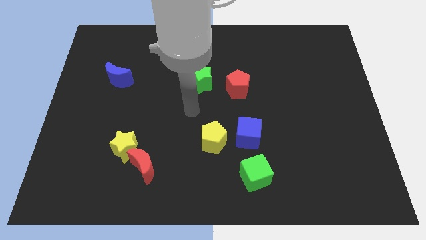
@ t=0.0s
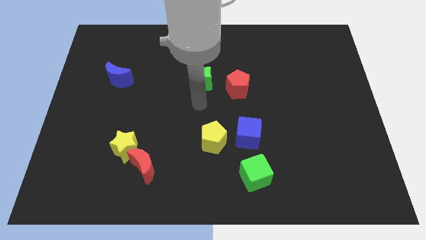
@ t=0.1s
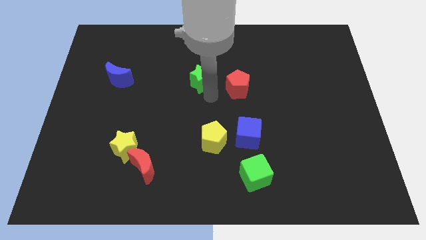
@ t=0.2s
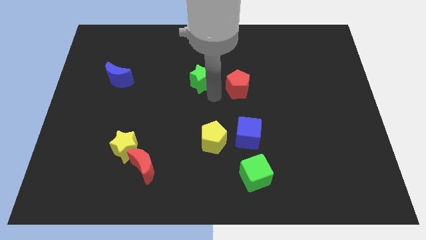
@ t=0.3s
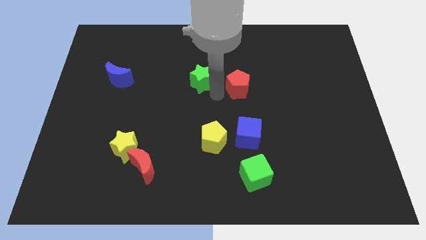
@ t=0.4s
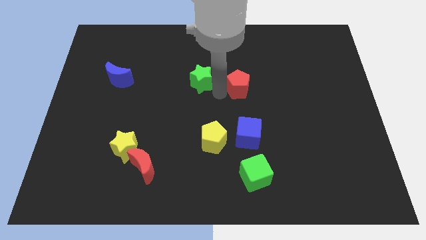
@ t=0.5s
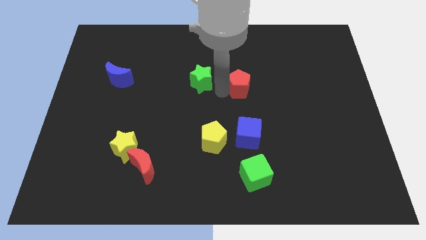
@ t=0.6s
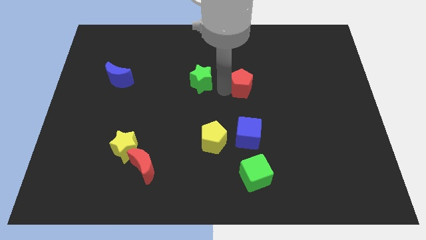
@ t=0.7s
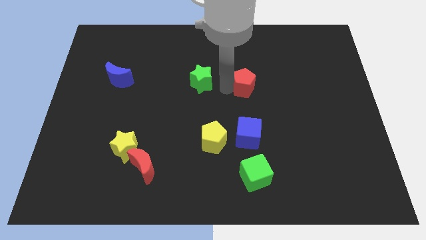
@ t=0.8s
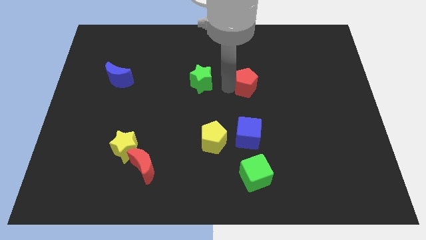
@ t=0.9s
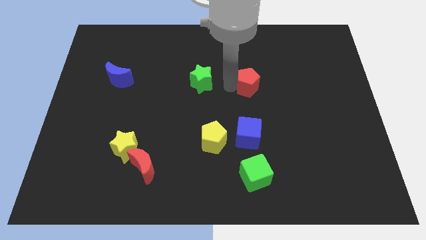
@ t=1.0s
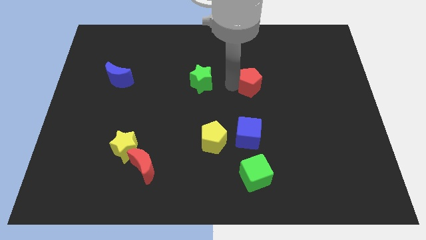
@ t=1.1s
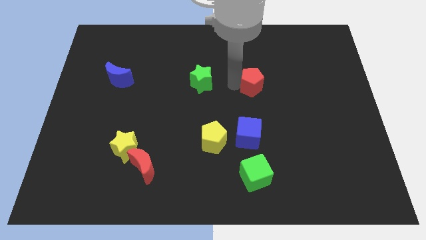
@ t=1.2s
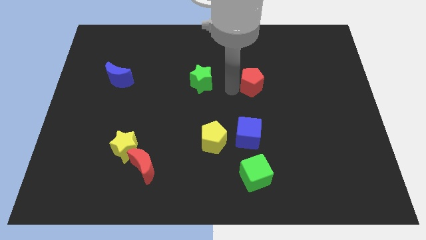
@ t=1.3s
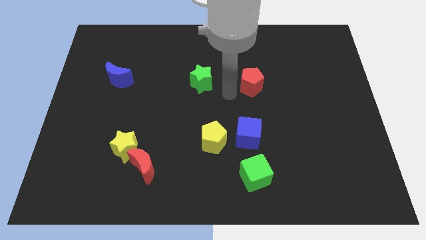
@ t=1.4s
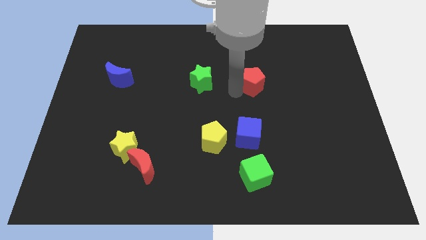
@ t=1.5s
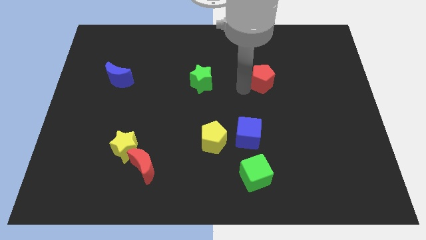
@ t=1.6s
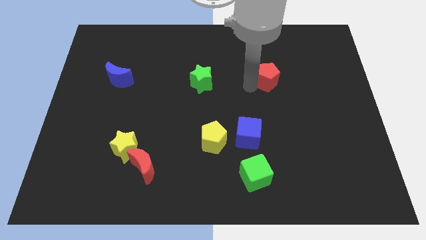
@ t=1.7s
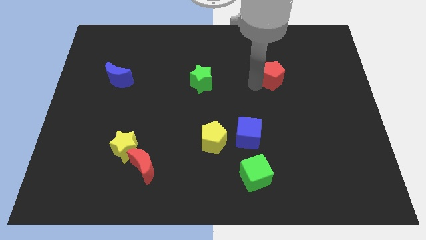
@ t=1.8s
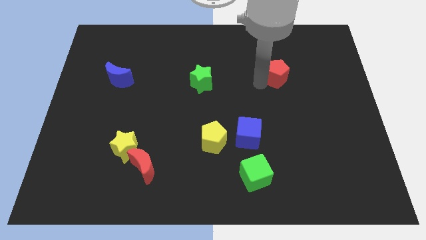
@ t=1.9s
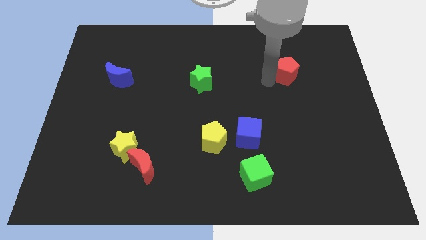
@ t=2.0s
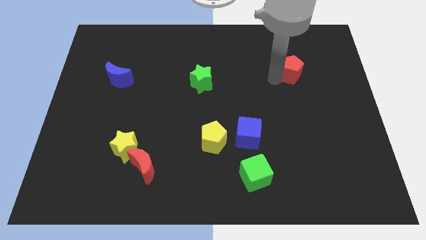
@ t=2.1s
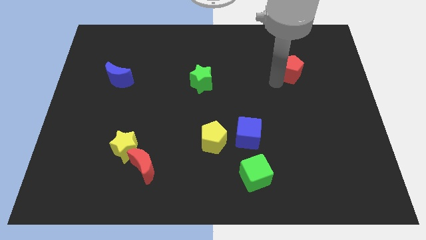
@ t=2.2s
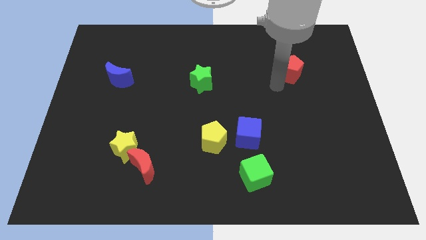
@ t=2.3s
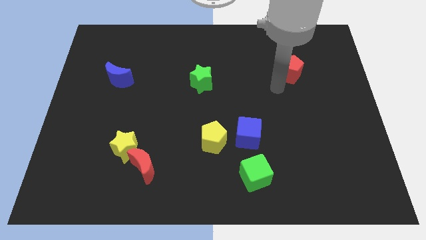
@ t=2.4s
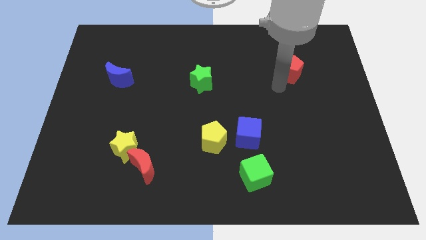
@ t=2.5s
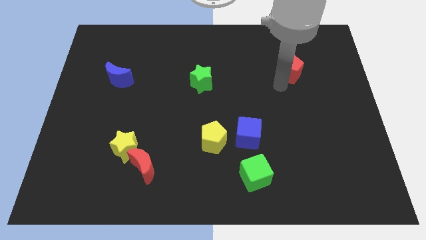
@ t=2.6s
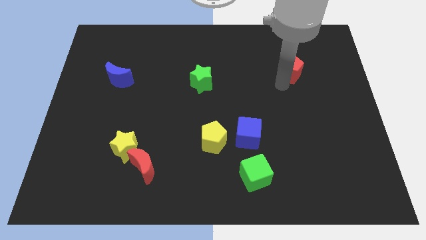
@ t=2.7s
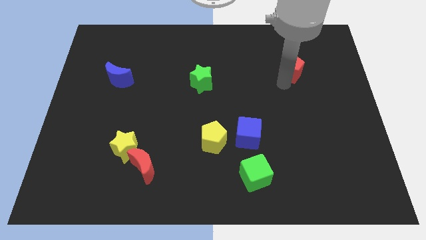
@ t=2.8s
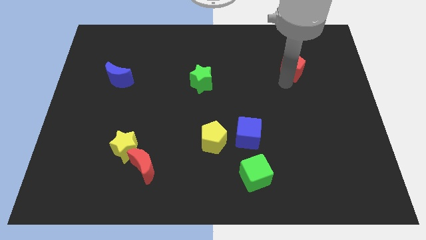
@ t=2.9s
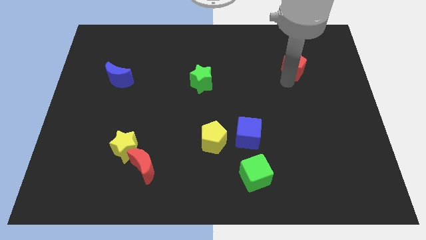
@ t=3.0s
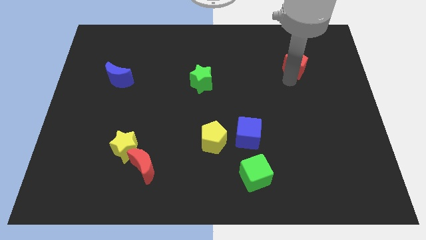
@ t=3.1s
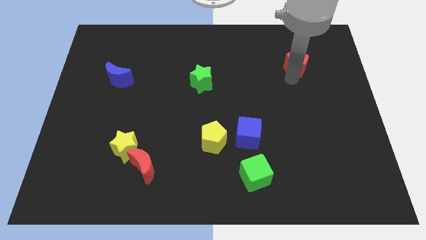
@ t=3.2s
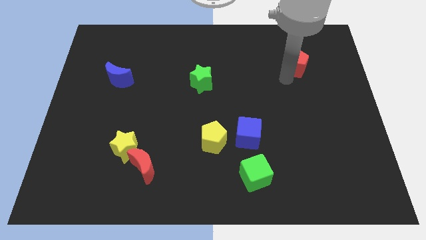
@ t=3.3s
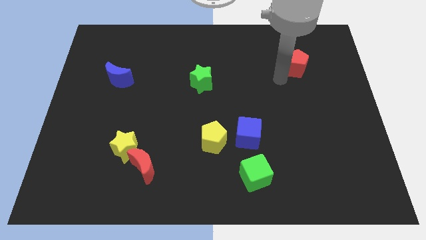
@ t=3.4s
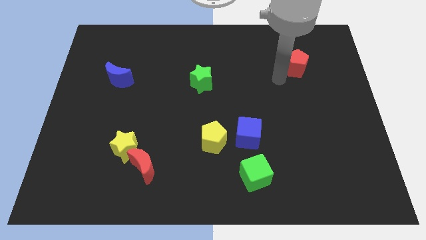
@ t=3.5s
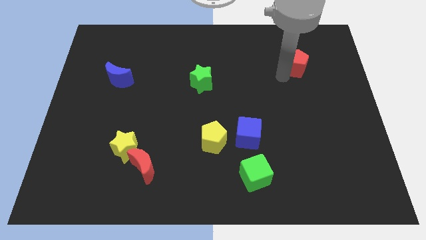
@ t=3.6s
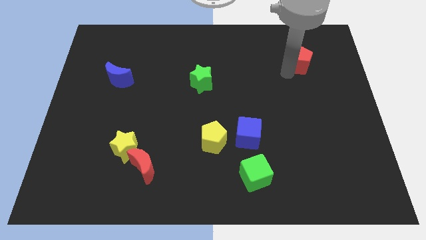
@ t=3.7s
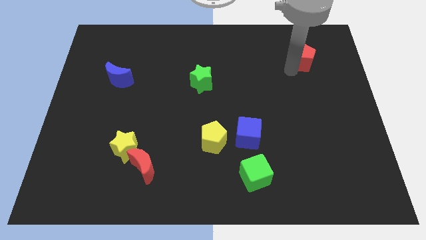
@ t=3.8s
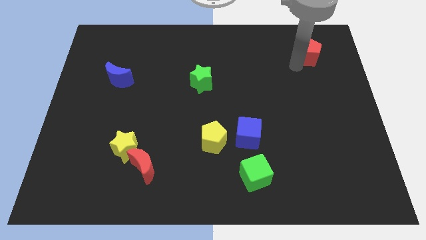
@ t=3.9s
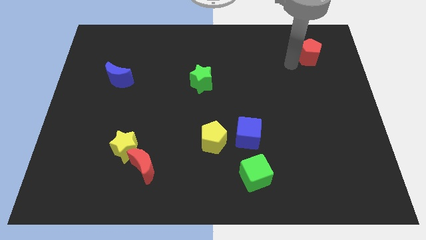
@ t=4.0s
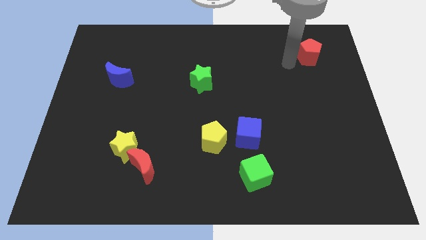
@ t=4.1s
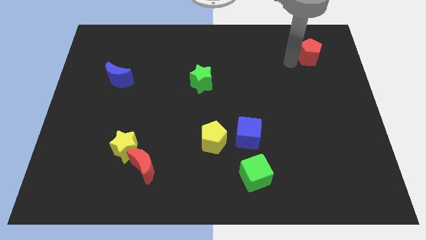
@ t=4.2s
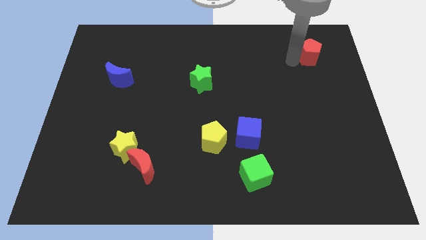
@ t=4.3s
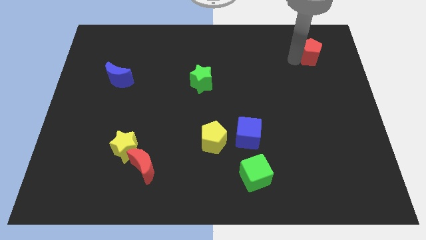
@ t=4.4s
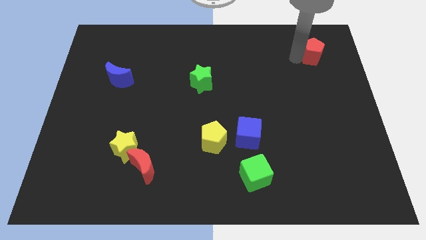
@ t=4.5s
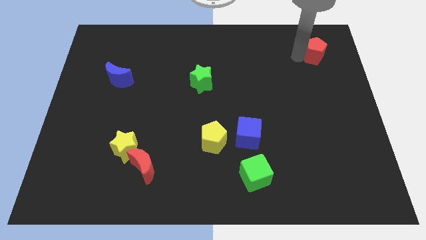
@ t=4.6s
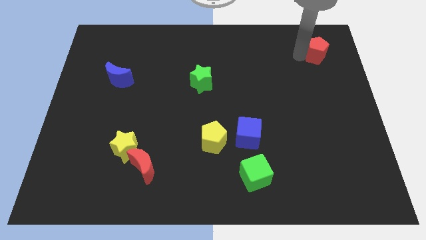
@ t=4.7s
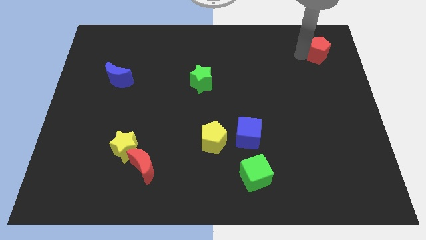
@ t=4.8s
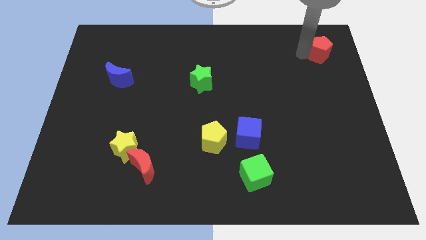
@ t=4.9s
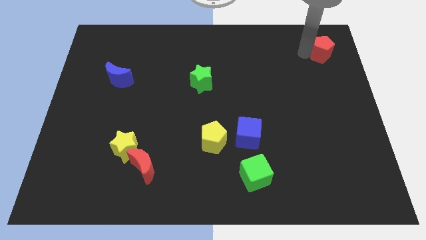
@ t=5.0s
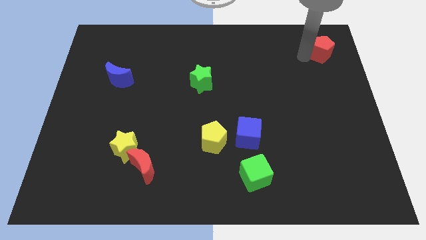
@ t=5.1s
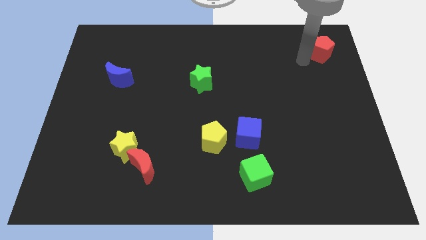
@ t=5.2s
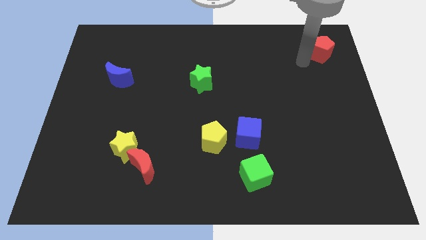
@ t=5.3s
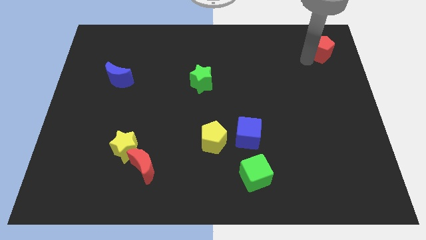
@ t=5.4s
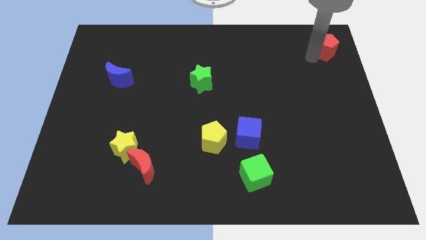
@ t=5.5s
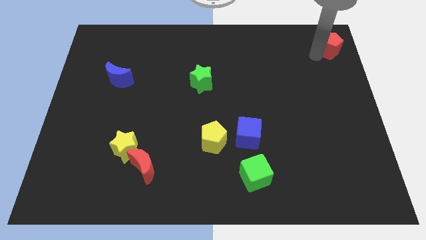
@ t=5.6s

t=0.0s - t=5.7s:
put the red pentagon to the top right of the board

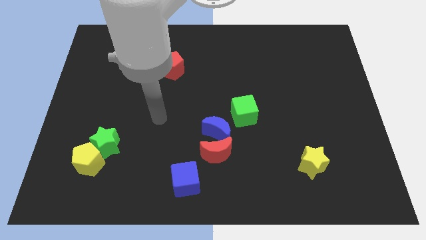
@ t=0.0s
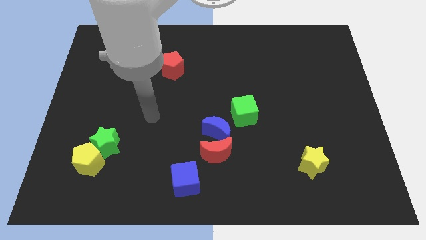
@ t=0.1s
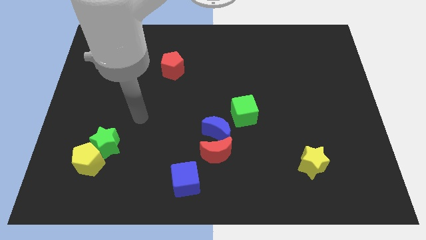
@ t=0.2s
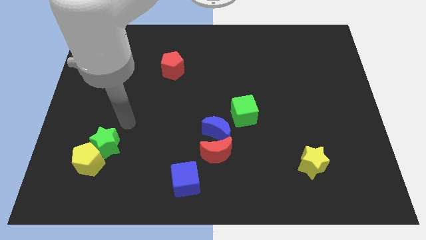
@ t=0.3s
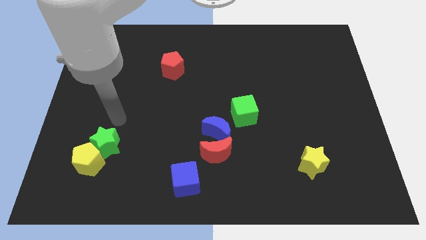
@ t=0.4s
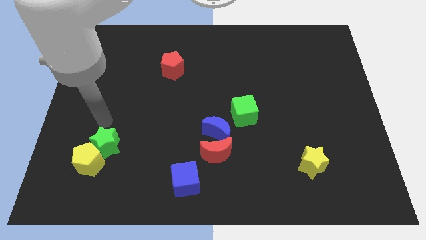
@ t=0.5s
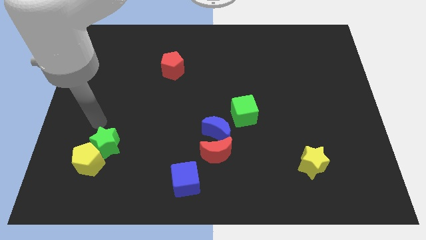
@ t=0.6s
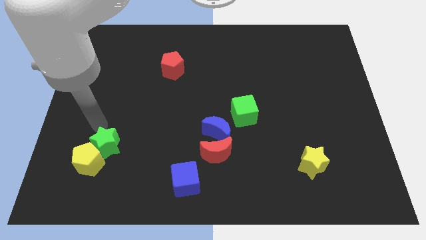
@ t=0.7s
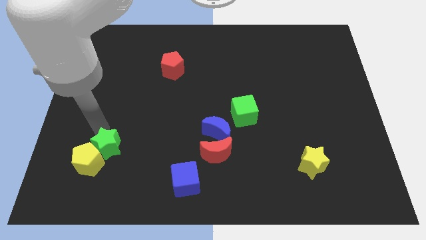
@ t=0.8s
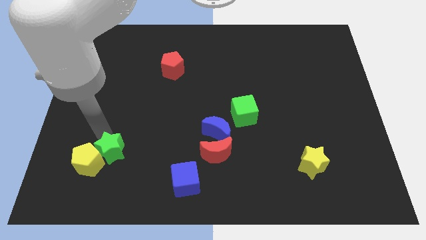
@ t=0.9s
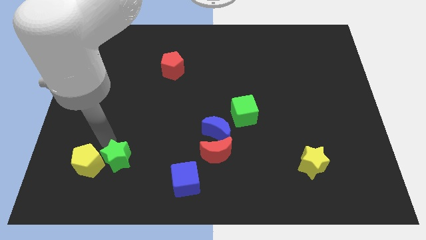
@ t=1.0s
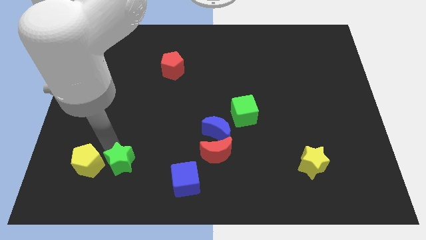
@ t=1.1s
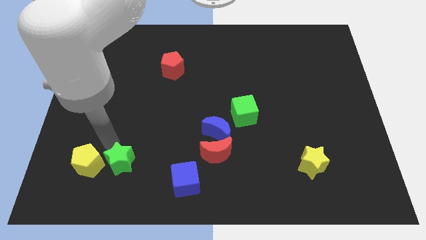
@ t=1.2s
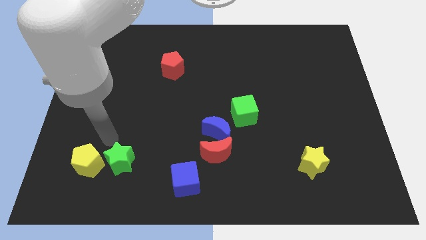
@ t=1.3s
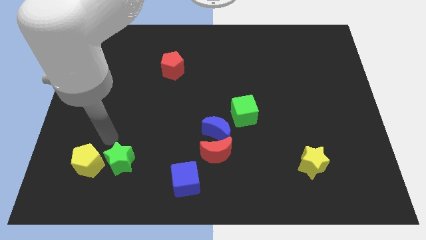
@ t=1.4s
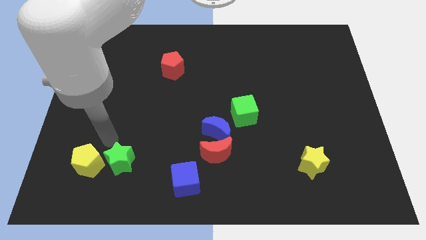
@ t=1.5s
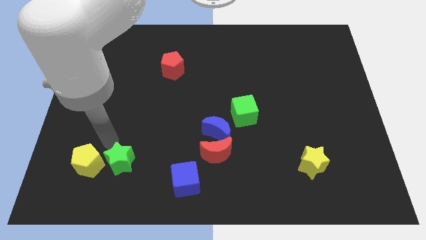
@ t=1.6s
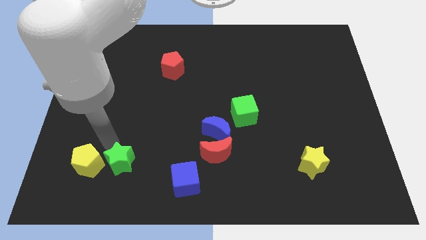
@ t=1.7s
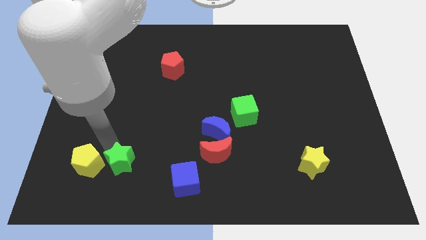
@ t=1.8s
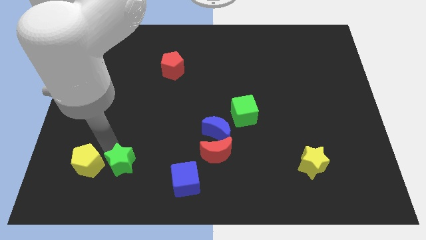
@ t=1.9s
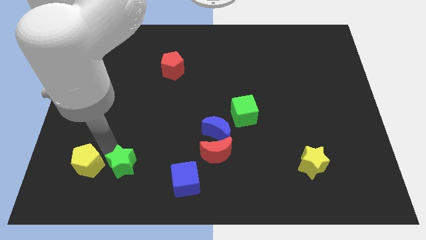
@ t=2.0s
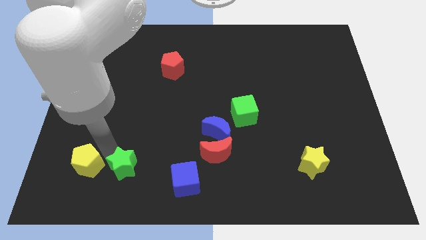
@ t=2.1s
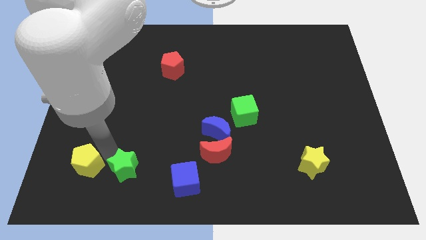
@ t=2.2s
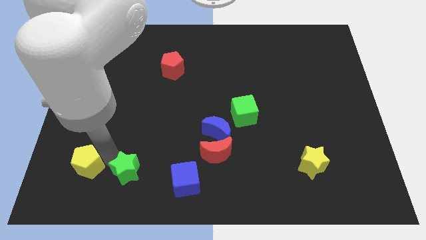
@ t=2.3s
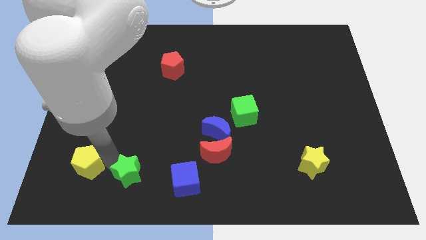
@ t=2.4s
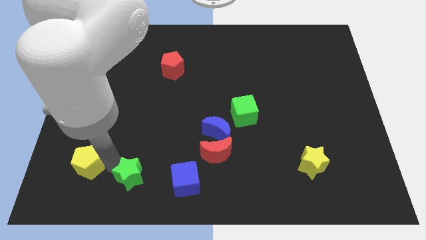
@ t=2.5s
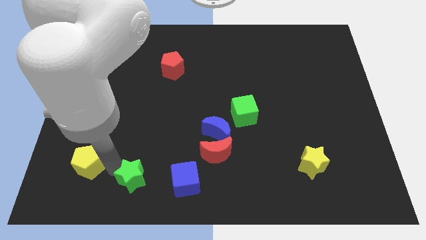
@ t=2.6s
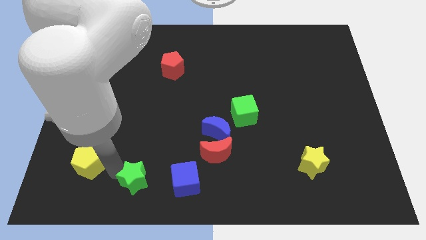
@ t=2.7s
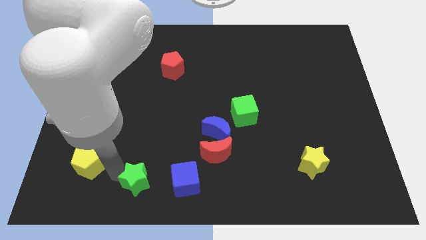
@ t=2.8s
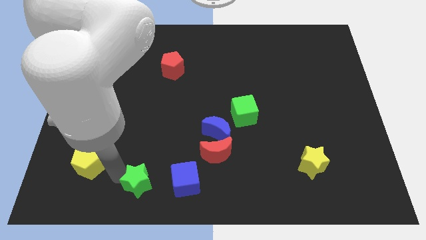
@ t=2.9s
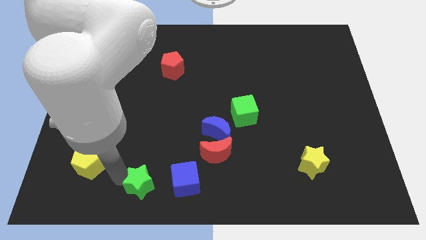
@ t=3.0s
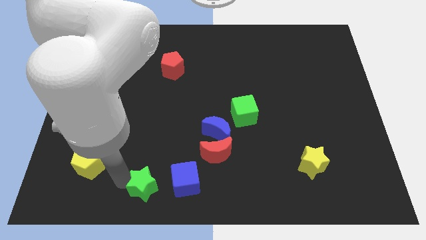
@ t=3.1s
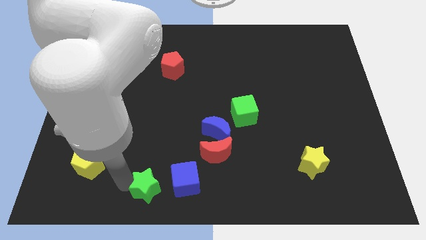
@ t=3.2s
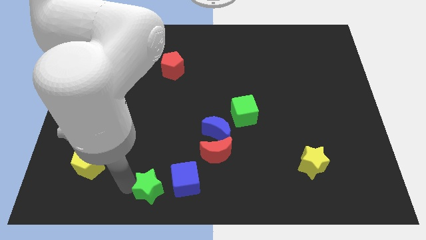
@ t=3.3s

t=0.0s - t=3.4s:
move the green star to the bottom
